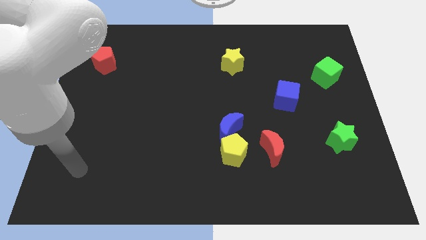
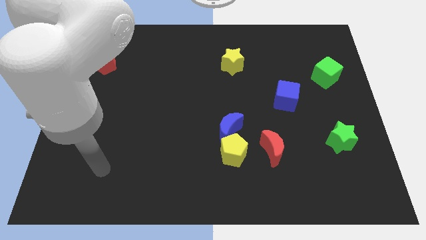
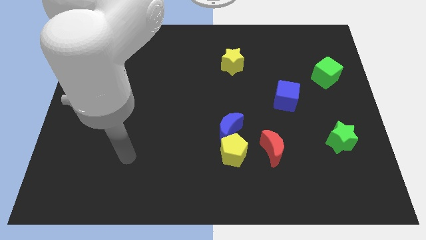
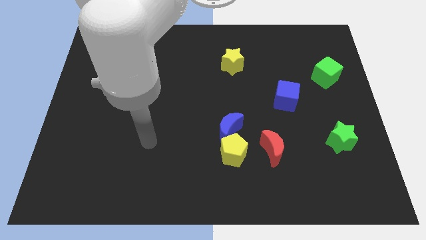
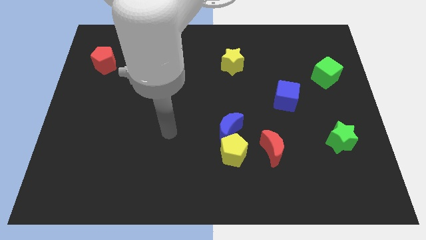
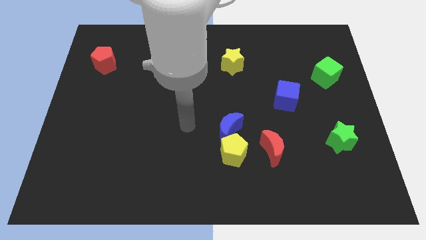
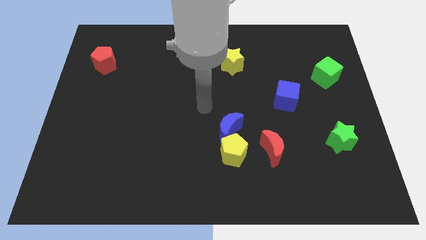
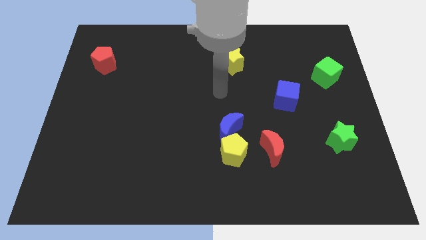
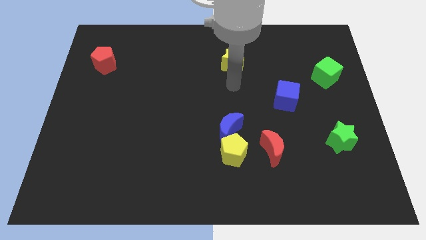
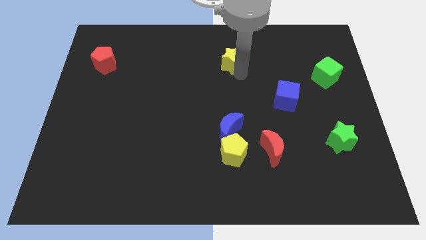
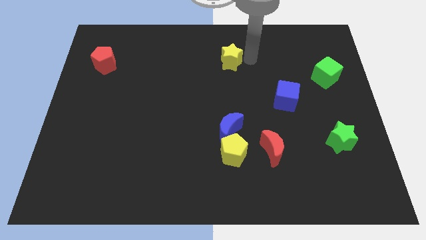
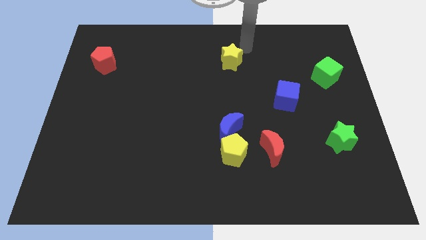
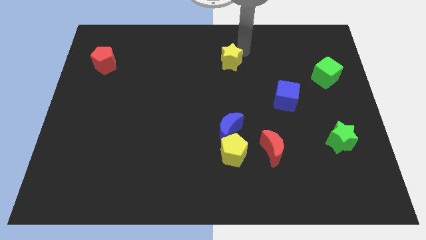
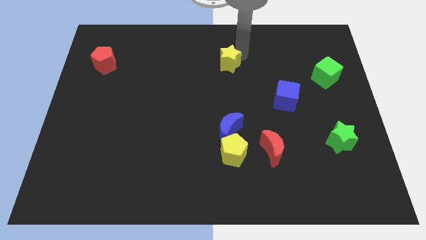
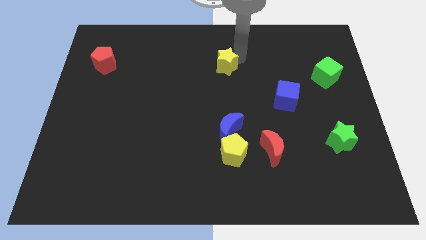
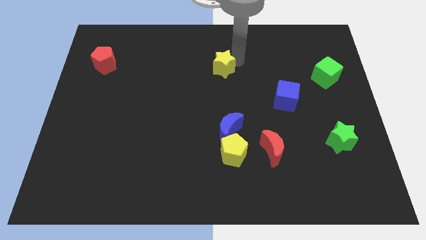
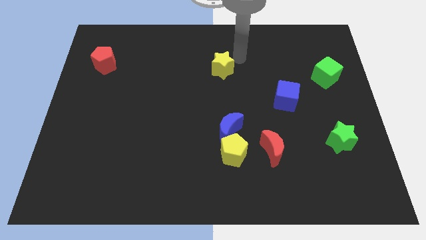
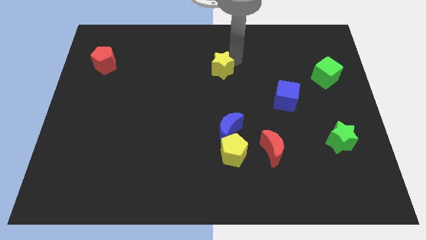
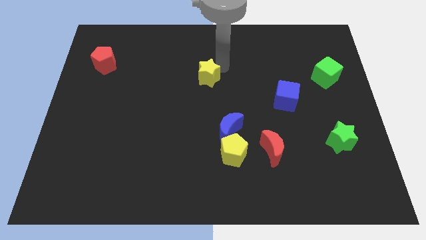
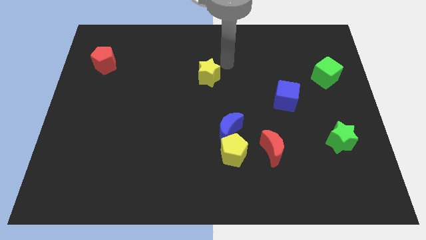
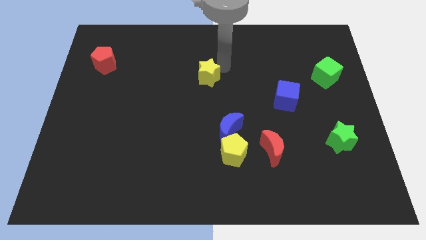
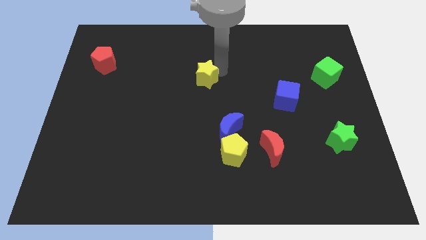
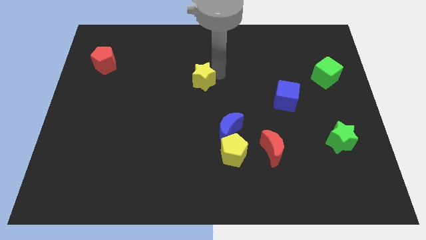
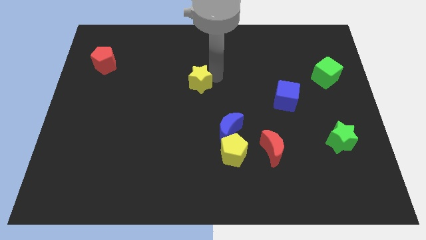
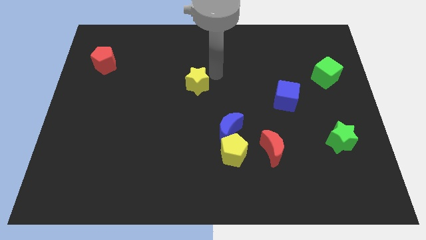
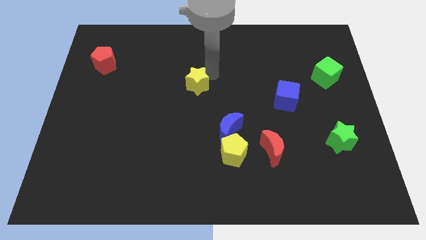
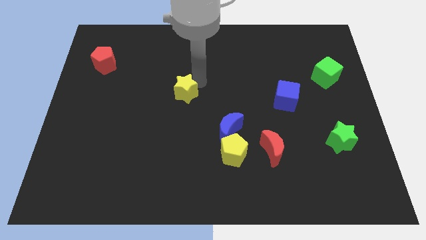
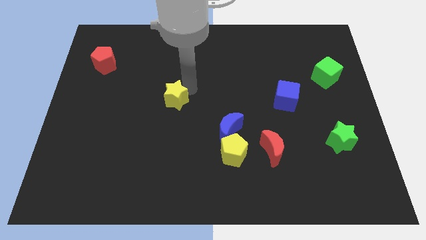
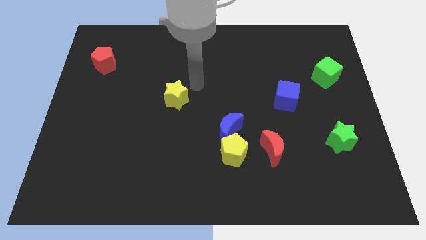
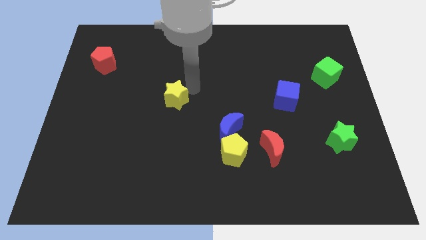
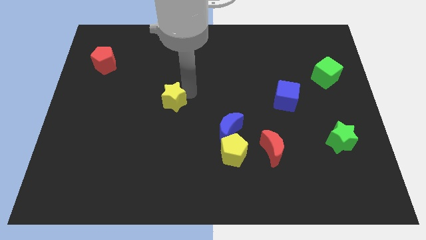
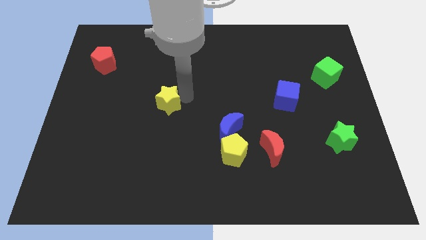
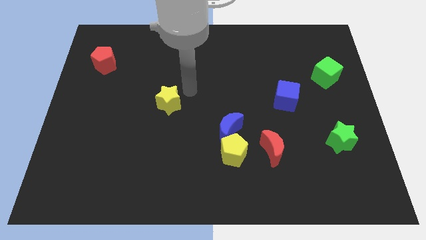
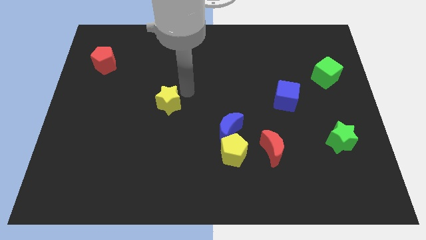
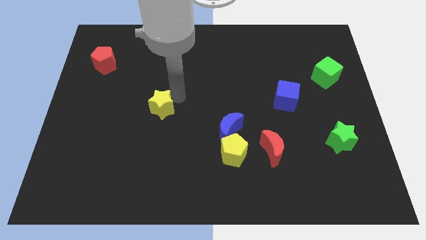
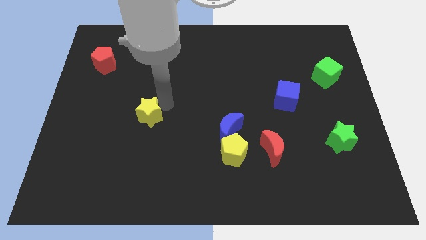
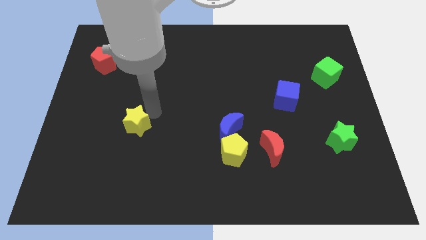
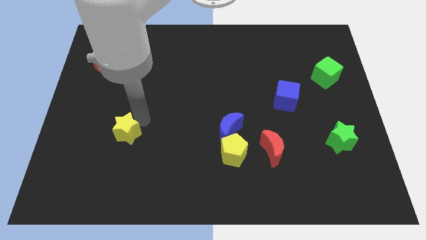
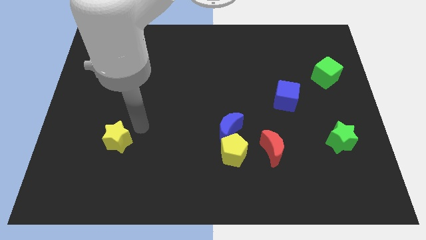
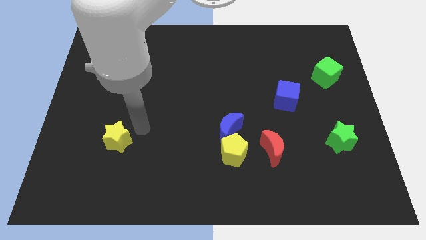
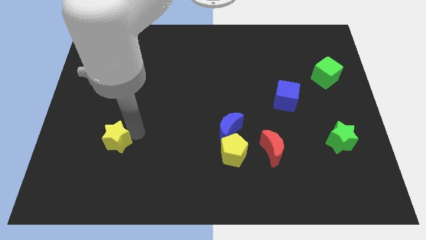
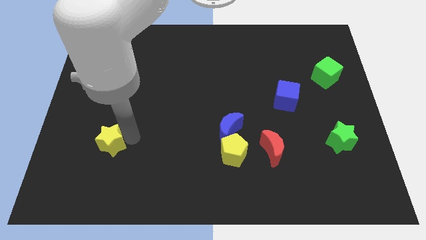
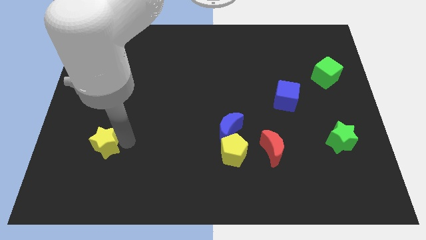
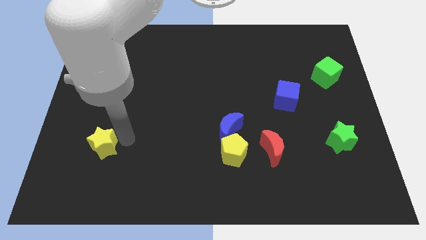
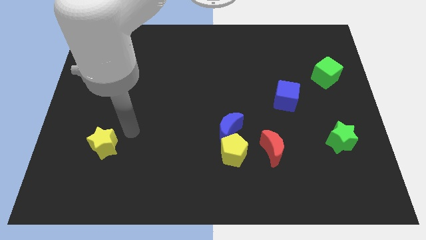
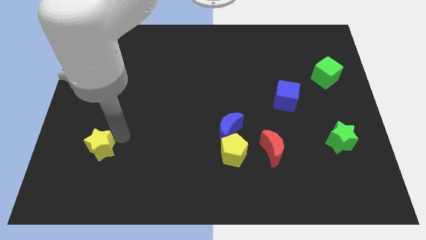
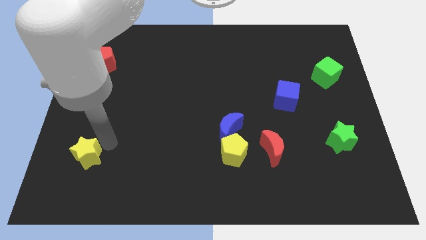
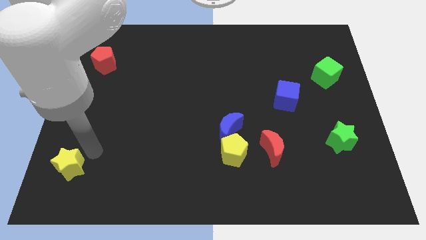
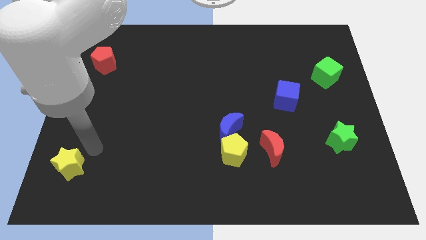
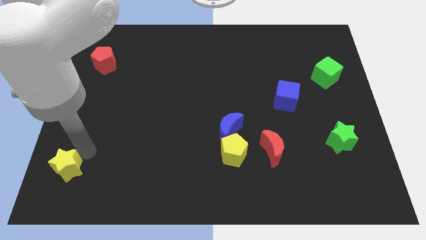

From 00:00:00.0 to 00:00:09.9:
move the yellow star to the bottom left of the board
